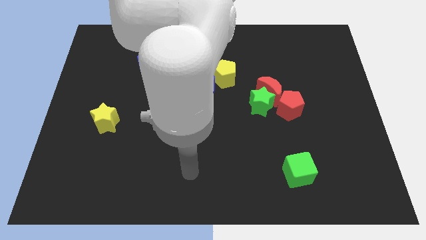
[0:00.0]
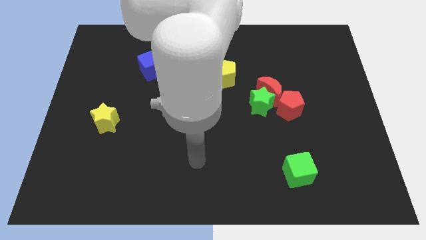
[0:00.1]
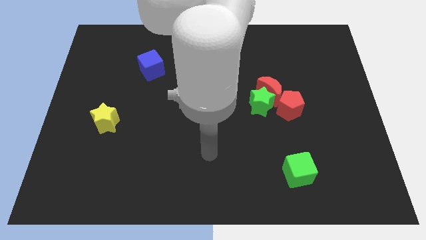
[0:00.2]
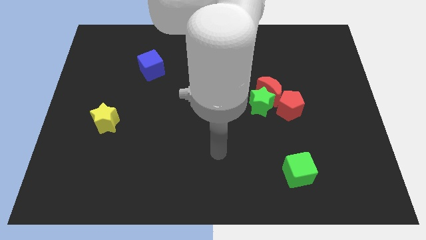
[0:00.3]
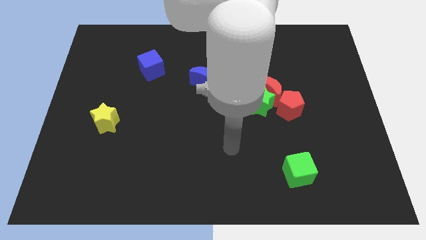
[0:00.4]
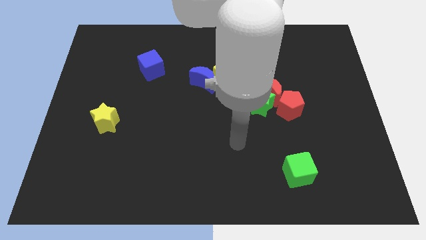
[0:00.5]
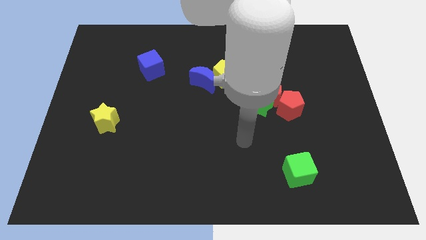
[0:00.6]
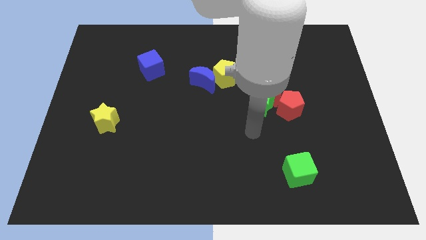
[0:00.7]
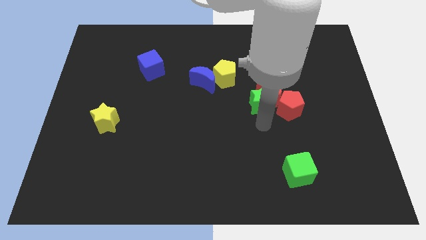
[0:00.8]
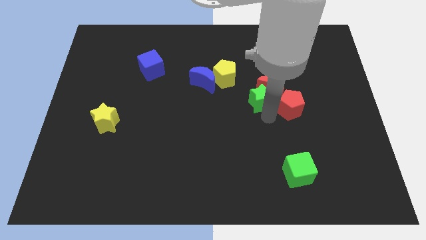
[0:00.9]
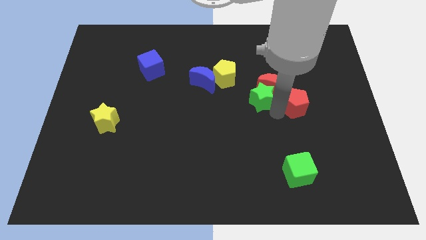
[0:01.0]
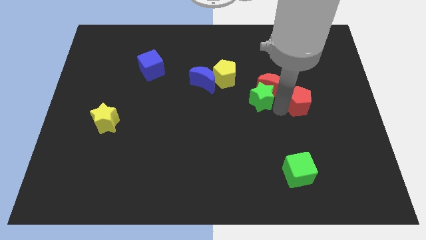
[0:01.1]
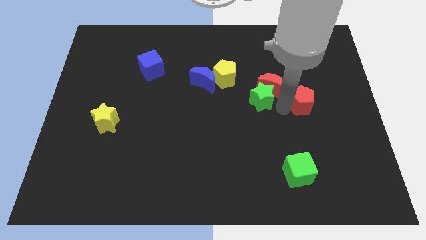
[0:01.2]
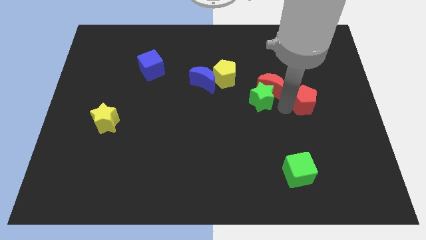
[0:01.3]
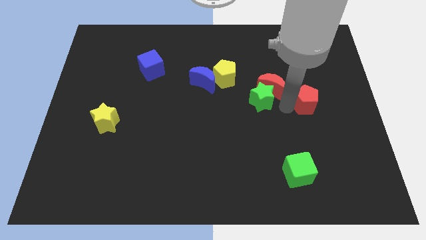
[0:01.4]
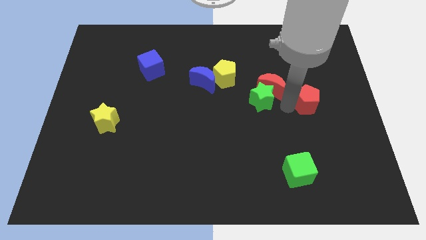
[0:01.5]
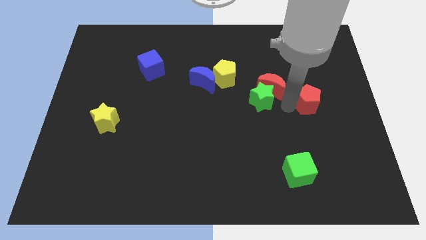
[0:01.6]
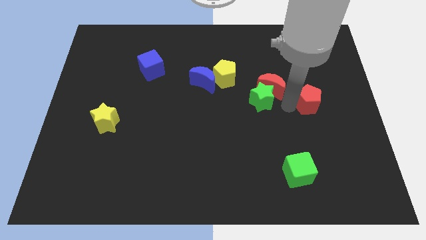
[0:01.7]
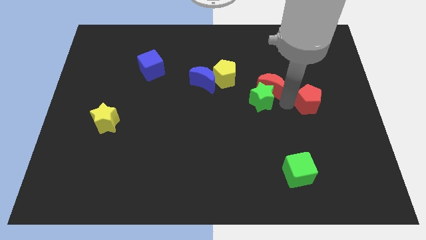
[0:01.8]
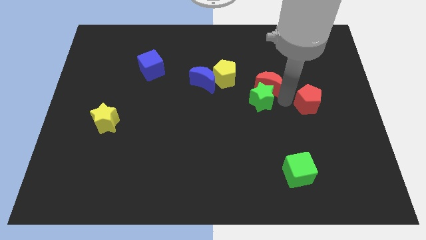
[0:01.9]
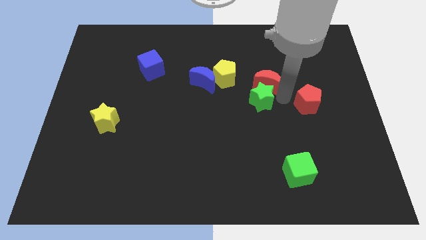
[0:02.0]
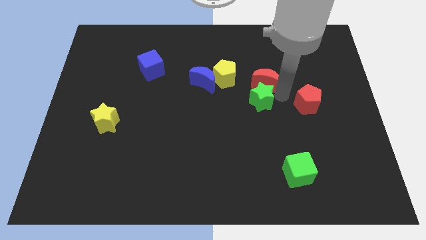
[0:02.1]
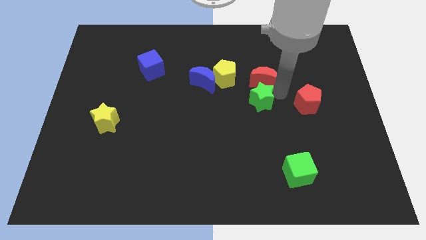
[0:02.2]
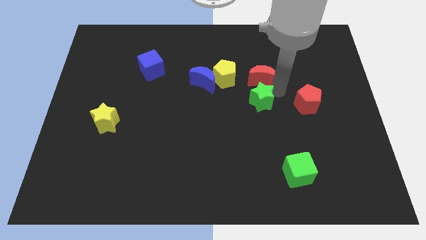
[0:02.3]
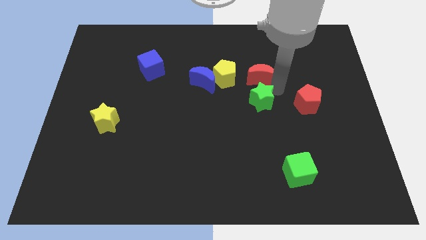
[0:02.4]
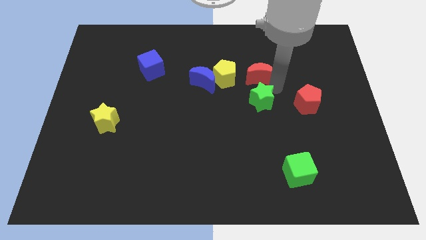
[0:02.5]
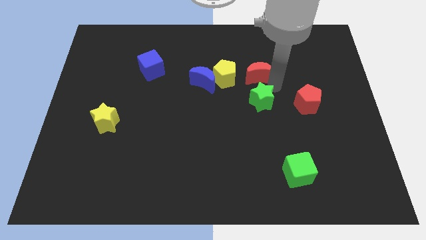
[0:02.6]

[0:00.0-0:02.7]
move the red moon away from the green star and red pentagon

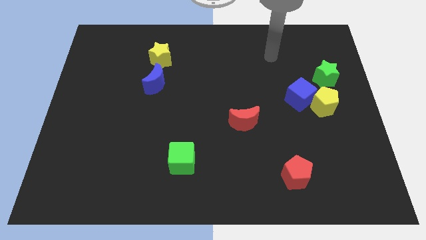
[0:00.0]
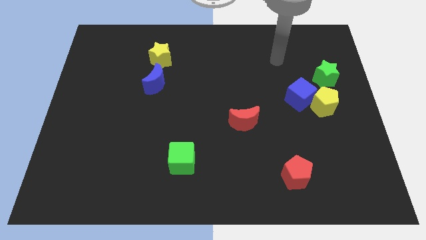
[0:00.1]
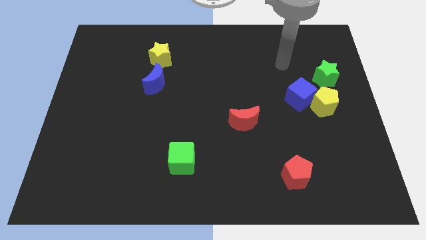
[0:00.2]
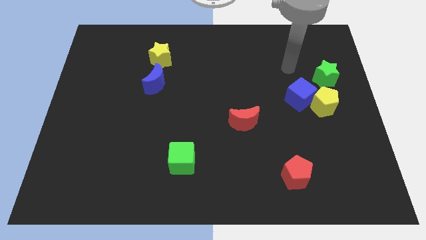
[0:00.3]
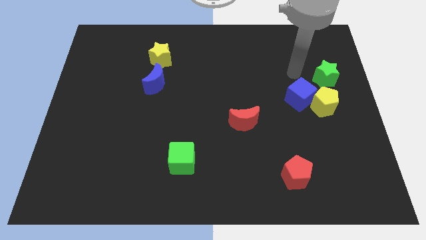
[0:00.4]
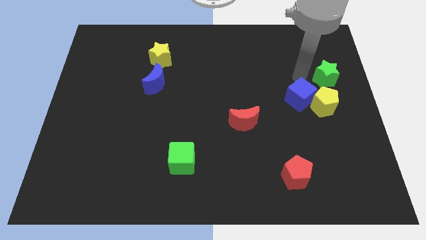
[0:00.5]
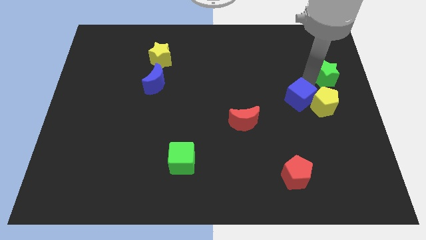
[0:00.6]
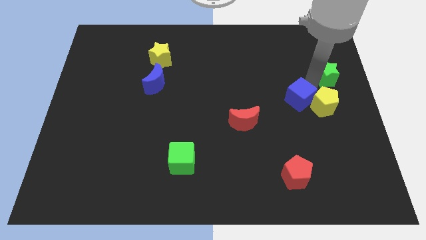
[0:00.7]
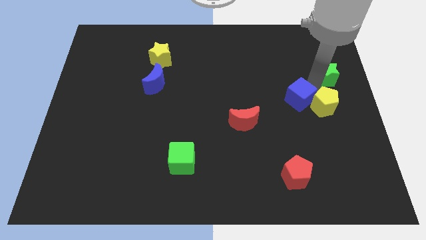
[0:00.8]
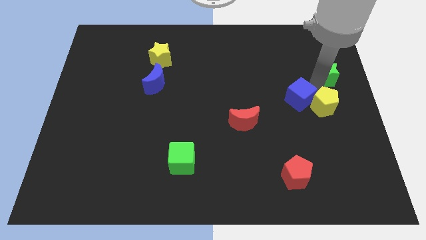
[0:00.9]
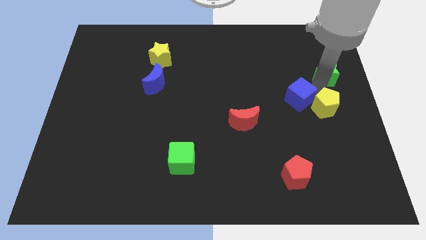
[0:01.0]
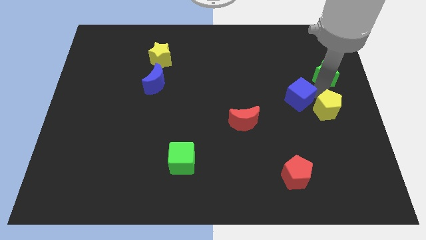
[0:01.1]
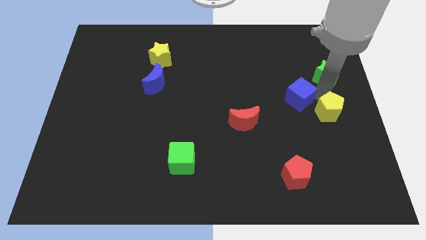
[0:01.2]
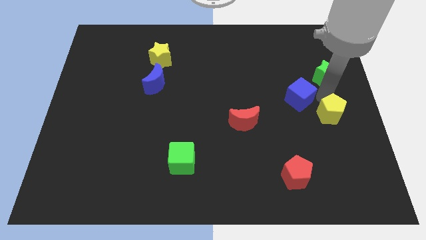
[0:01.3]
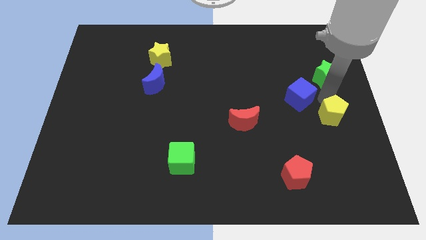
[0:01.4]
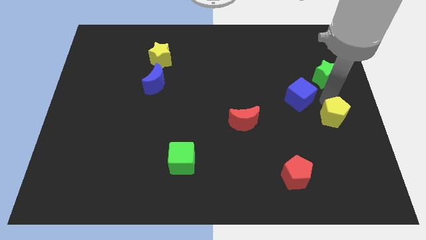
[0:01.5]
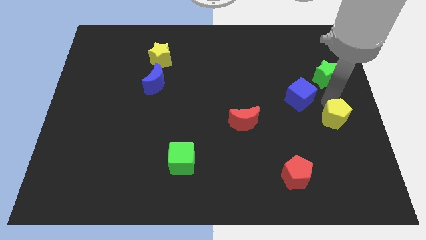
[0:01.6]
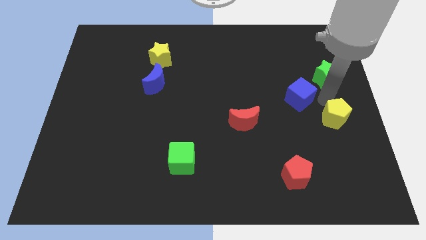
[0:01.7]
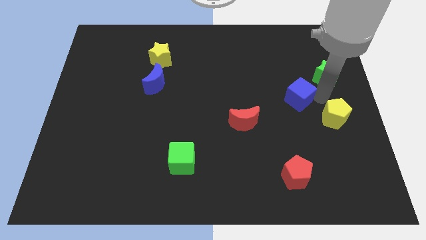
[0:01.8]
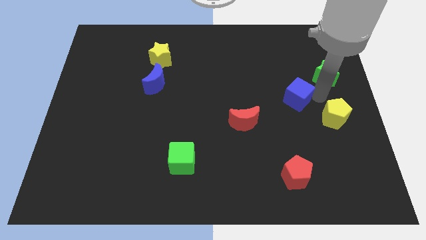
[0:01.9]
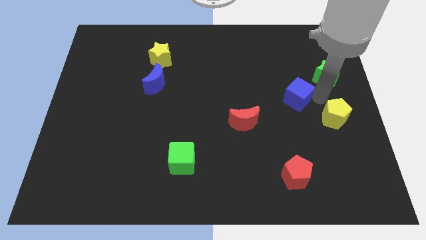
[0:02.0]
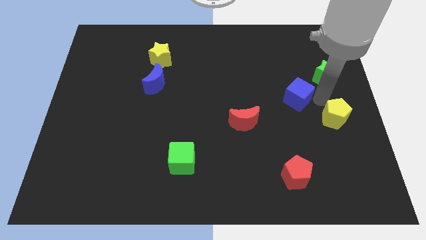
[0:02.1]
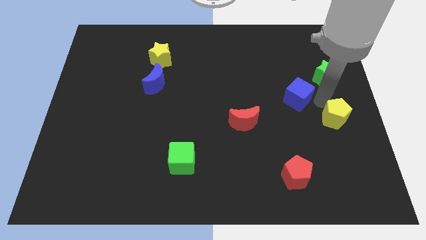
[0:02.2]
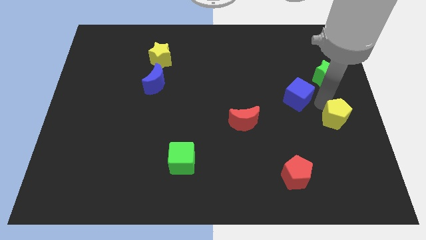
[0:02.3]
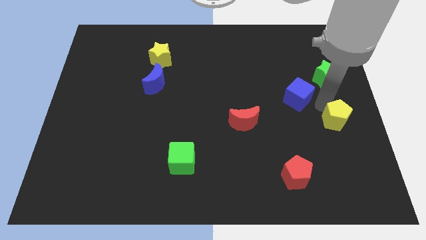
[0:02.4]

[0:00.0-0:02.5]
pull the yellow pentagon apart from the blue cube and green star

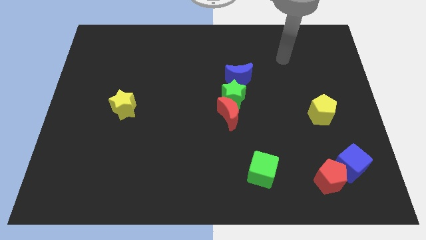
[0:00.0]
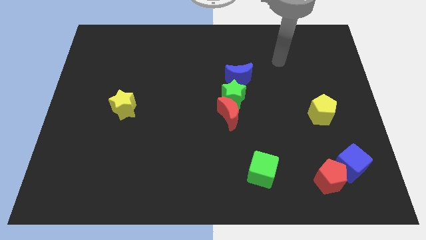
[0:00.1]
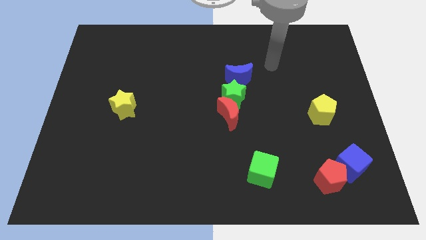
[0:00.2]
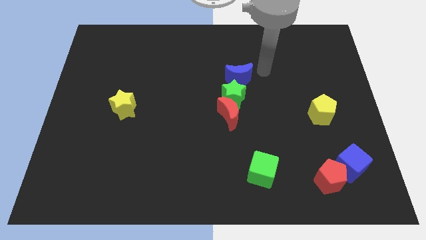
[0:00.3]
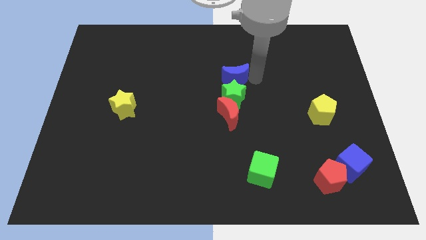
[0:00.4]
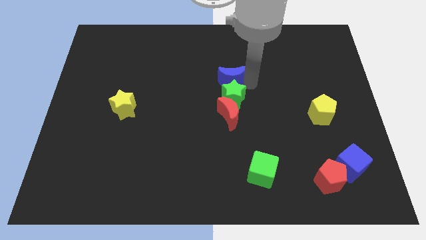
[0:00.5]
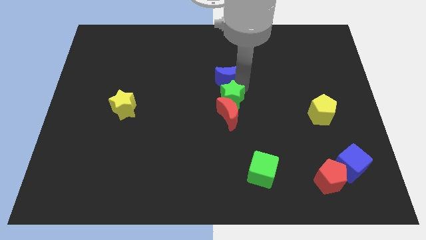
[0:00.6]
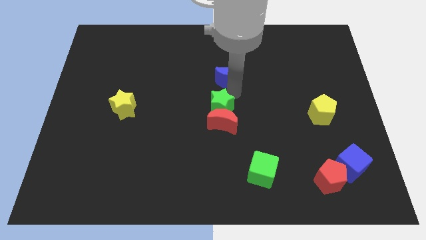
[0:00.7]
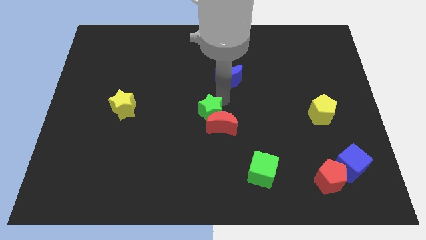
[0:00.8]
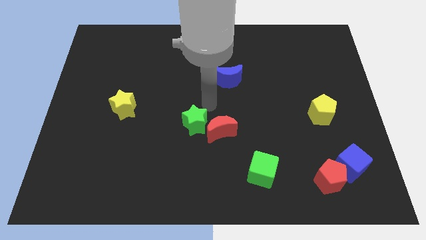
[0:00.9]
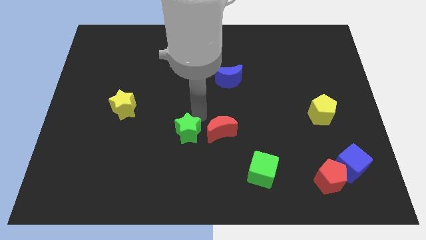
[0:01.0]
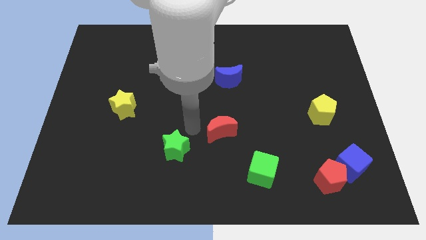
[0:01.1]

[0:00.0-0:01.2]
pull the red moon apart from the green star

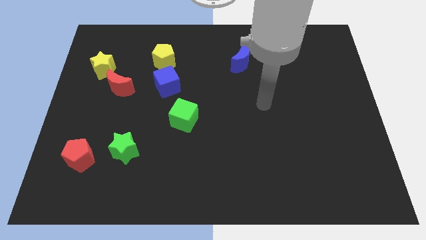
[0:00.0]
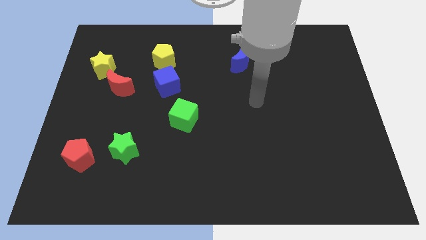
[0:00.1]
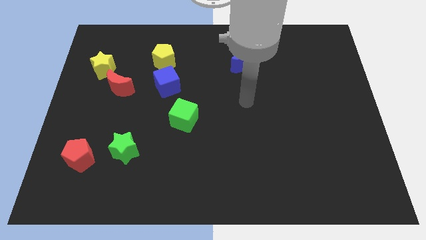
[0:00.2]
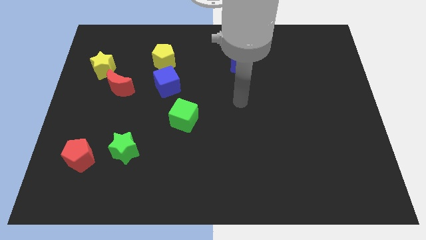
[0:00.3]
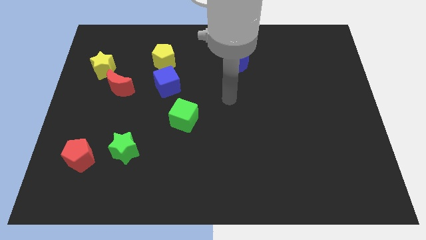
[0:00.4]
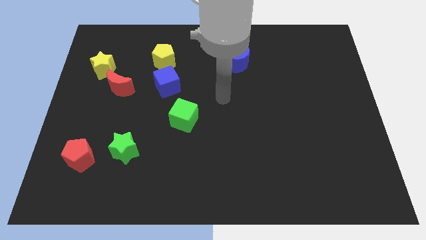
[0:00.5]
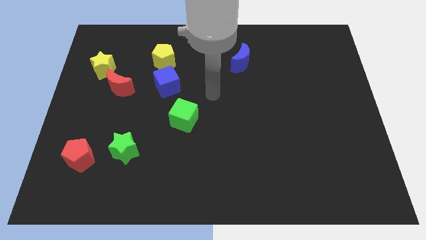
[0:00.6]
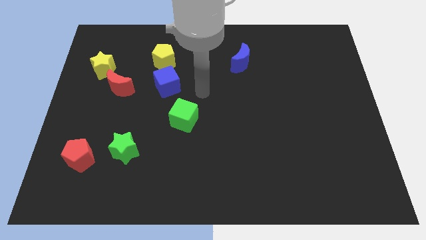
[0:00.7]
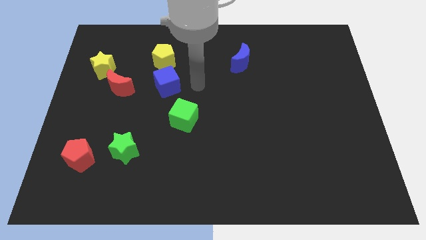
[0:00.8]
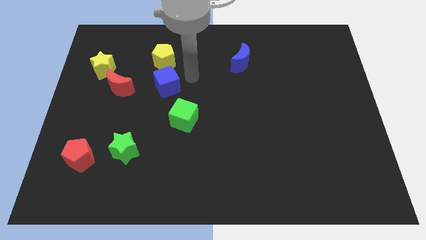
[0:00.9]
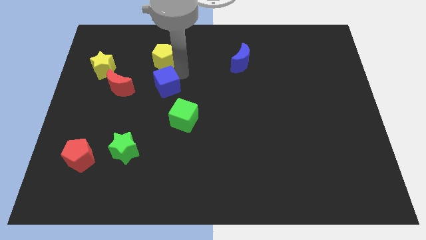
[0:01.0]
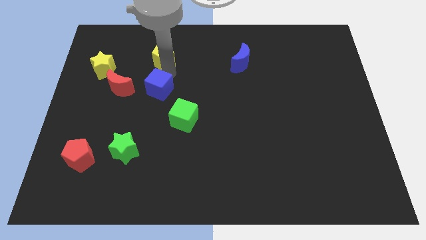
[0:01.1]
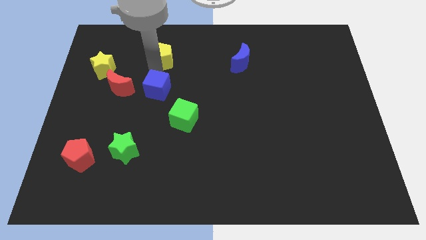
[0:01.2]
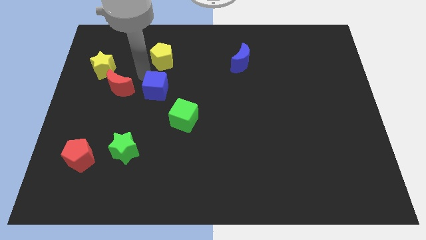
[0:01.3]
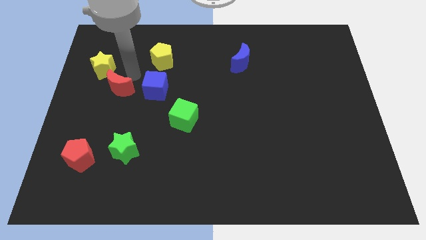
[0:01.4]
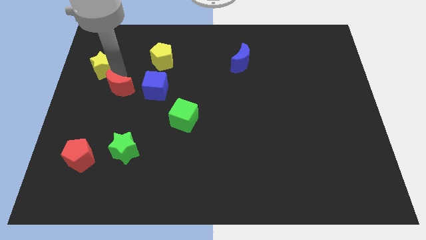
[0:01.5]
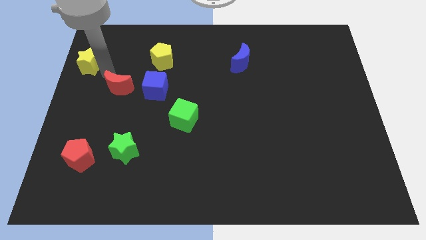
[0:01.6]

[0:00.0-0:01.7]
move the red moon away from the yellow star

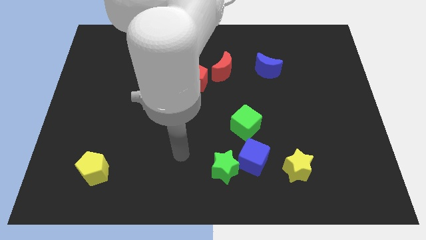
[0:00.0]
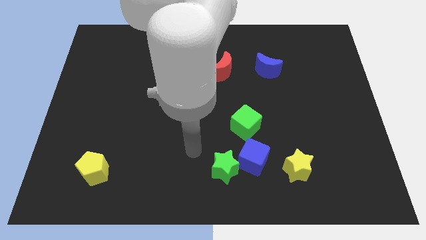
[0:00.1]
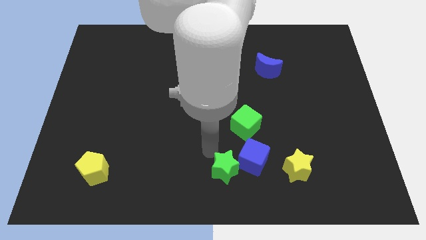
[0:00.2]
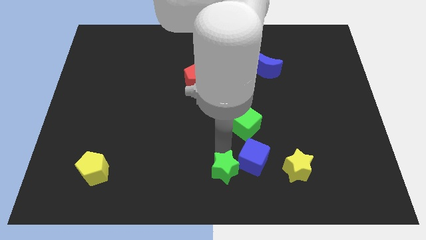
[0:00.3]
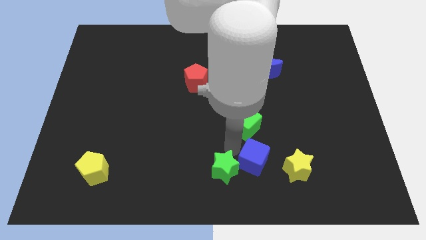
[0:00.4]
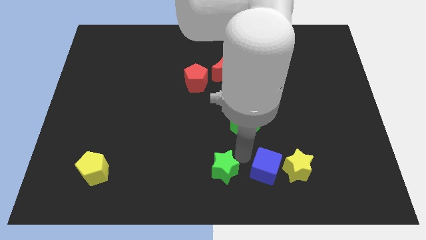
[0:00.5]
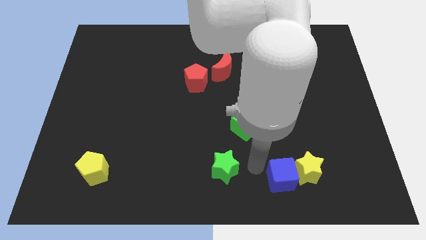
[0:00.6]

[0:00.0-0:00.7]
separate the green star from the blue cube

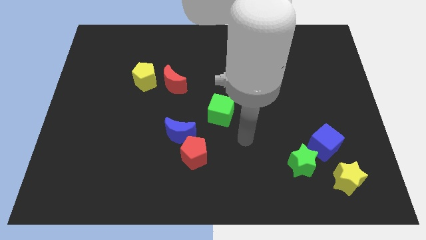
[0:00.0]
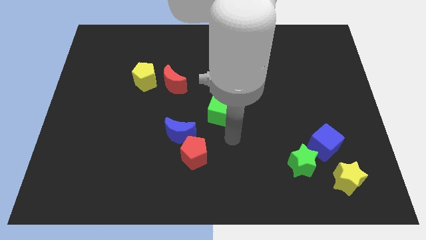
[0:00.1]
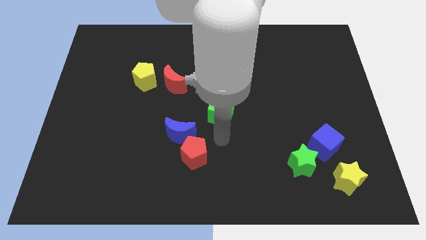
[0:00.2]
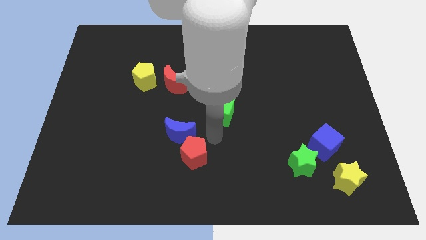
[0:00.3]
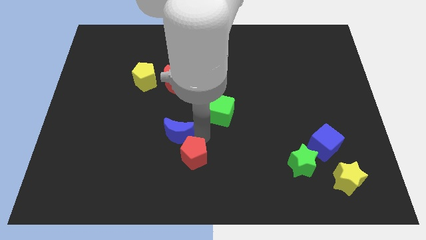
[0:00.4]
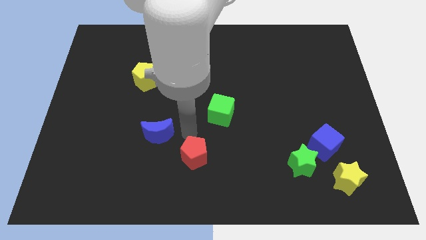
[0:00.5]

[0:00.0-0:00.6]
move the red pentagon away from the blue moon
